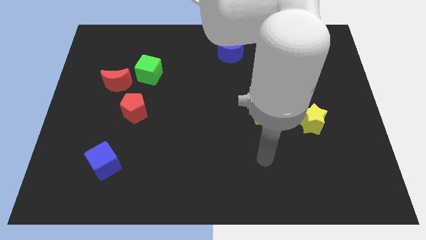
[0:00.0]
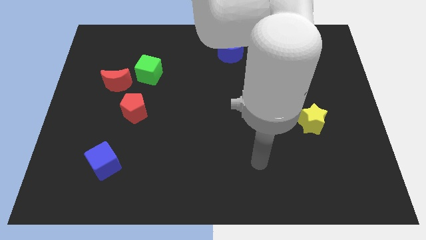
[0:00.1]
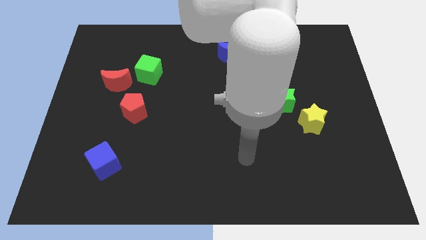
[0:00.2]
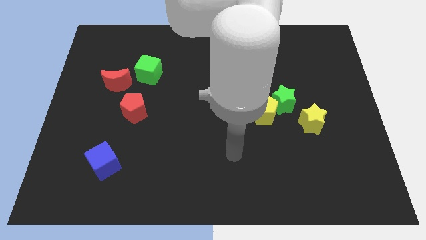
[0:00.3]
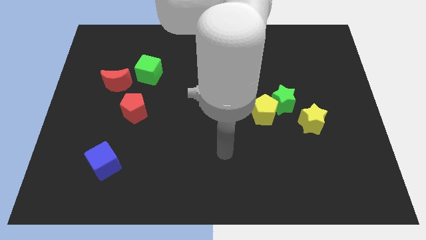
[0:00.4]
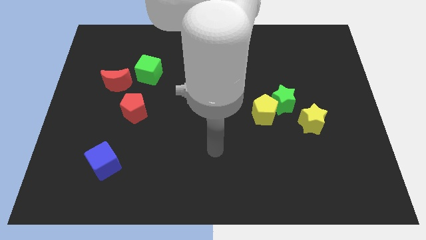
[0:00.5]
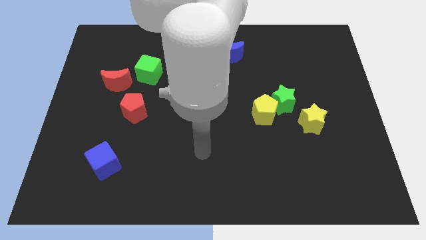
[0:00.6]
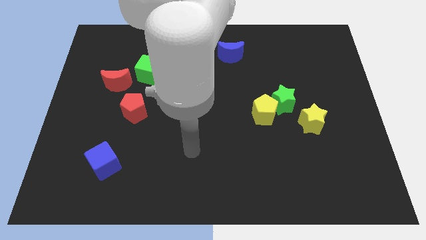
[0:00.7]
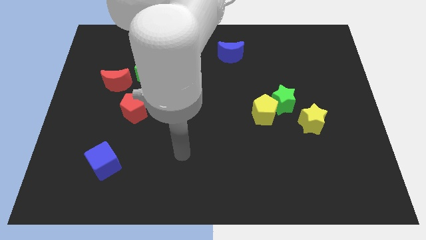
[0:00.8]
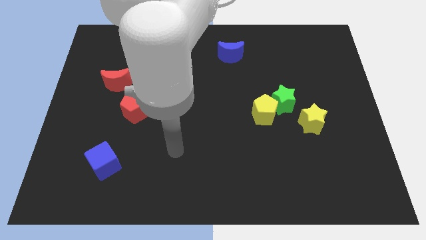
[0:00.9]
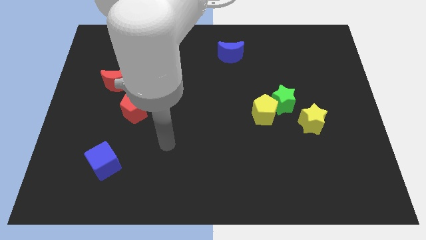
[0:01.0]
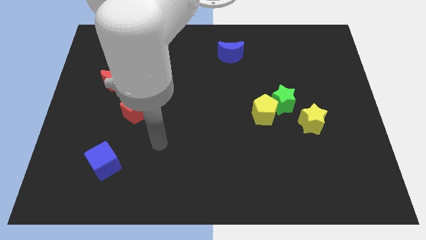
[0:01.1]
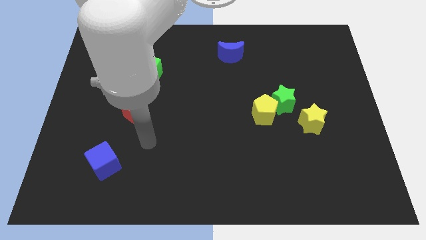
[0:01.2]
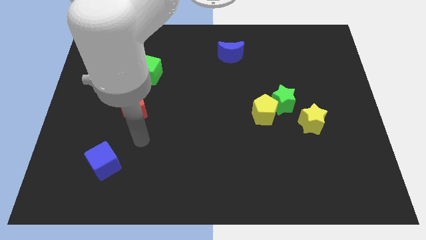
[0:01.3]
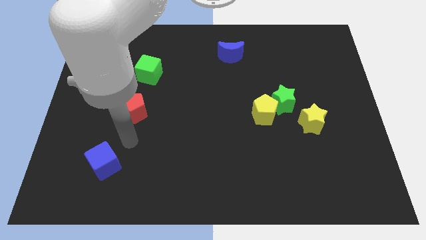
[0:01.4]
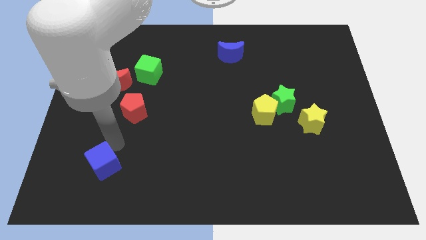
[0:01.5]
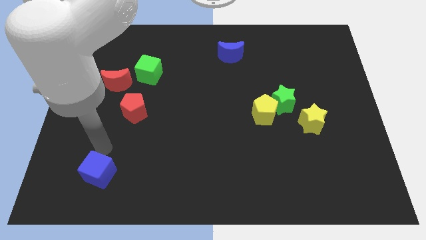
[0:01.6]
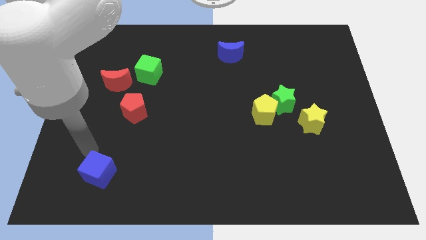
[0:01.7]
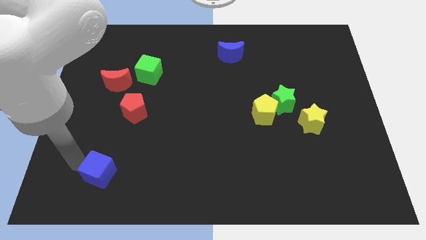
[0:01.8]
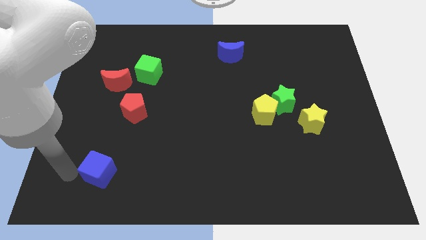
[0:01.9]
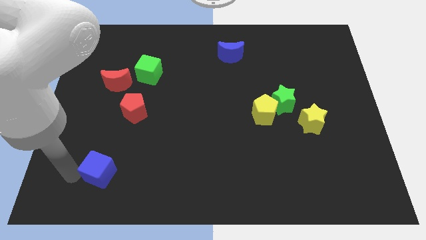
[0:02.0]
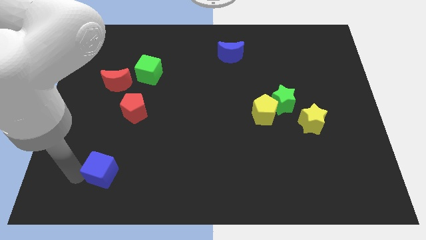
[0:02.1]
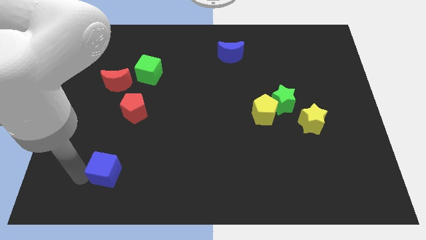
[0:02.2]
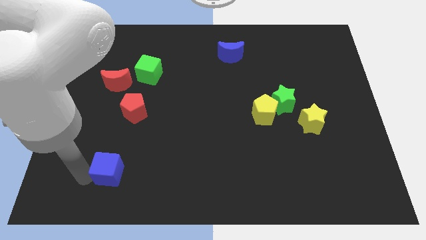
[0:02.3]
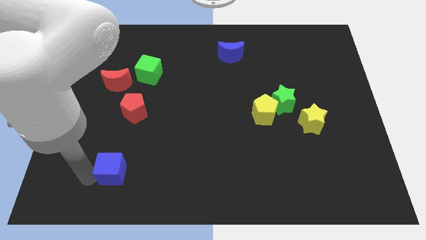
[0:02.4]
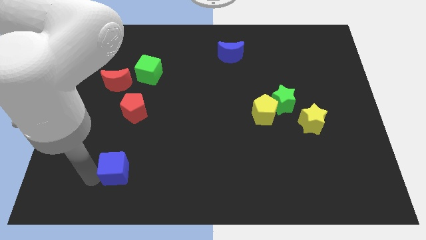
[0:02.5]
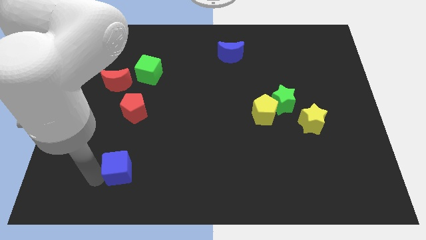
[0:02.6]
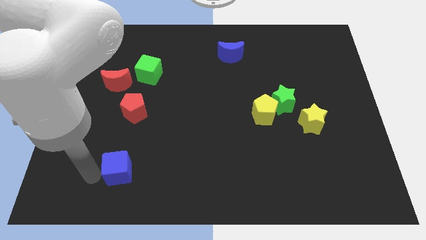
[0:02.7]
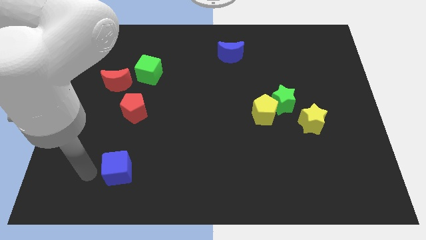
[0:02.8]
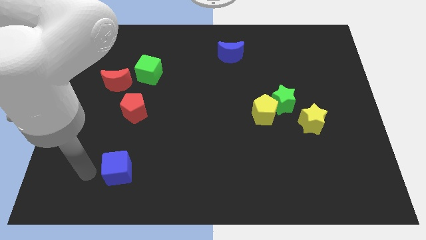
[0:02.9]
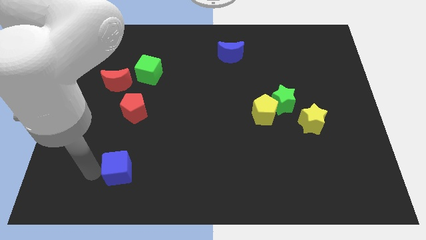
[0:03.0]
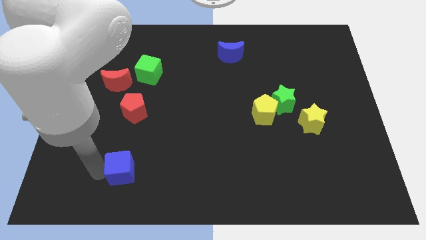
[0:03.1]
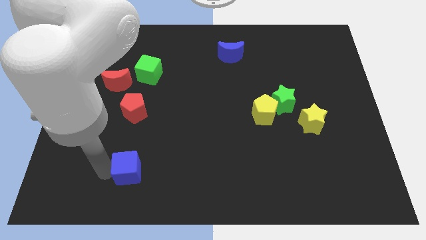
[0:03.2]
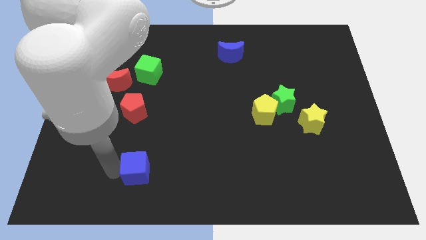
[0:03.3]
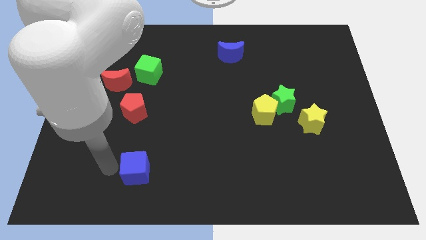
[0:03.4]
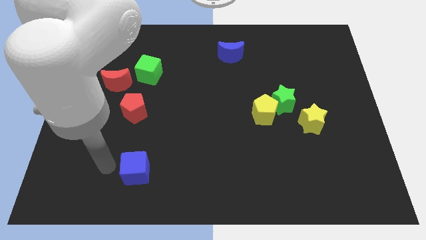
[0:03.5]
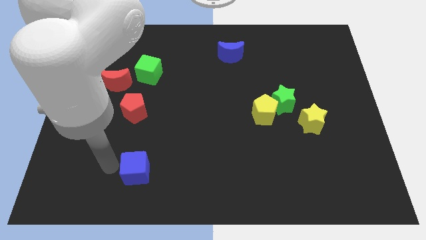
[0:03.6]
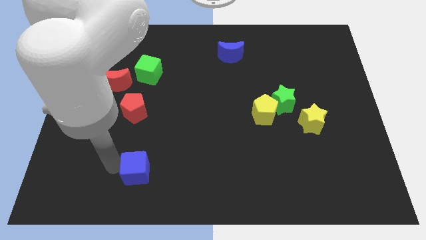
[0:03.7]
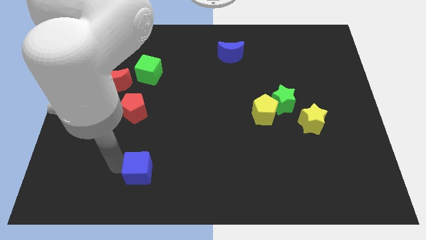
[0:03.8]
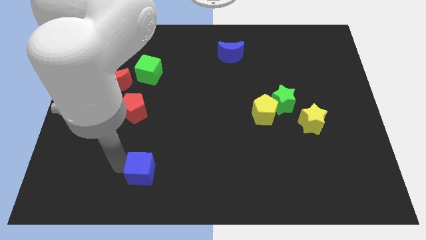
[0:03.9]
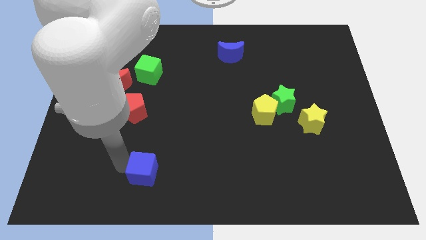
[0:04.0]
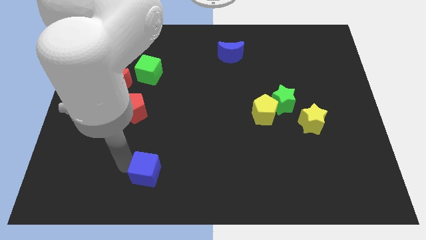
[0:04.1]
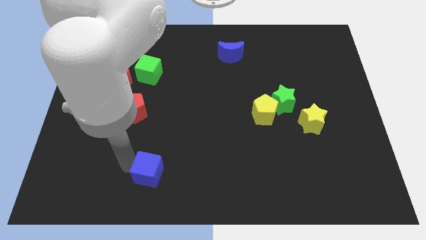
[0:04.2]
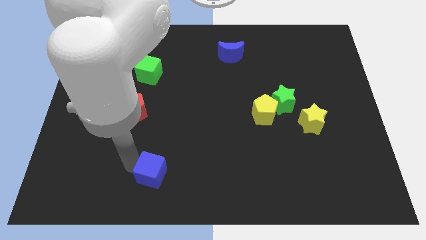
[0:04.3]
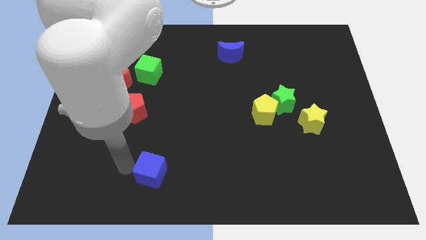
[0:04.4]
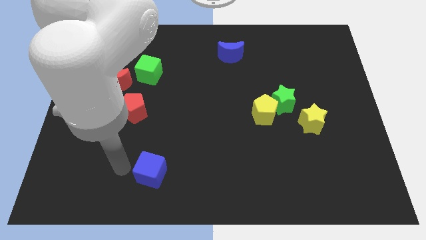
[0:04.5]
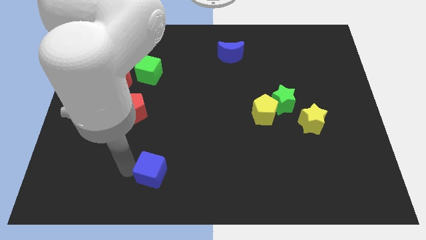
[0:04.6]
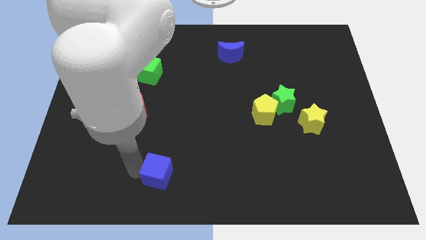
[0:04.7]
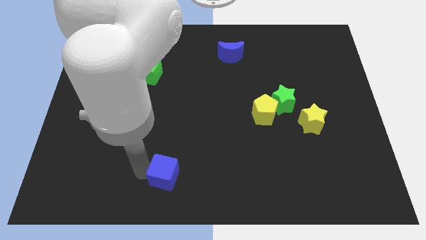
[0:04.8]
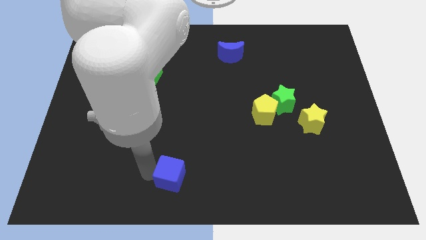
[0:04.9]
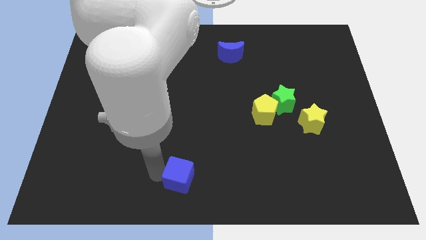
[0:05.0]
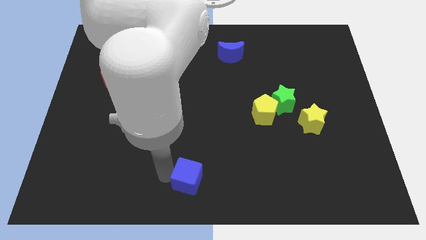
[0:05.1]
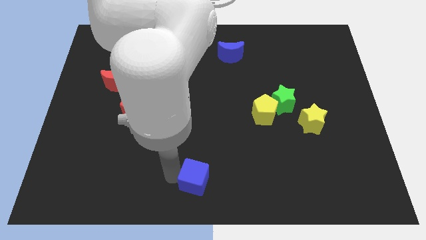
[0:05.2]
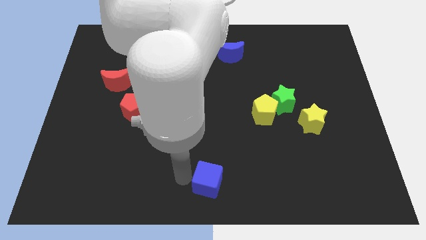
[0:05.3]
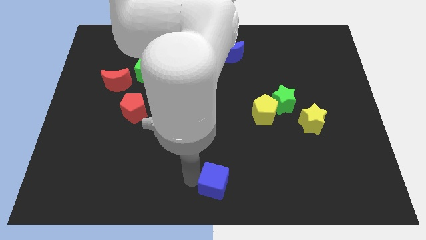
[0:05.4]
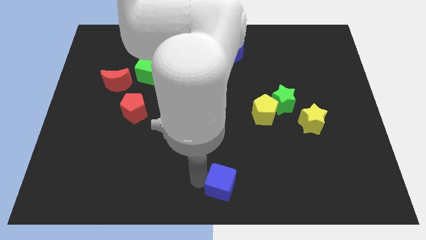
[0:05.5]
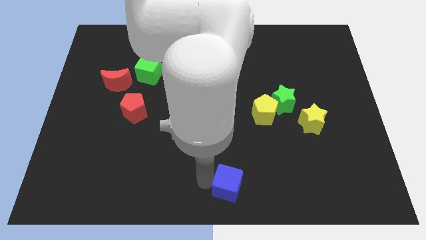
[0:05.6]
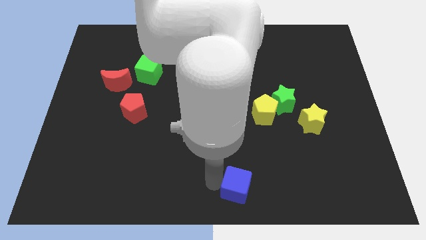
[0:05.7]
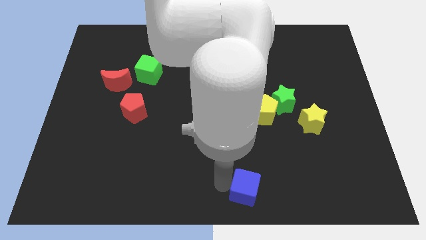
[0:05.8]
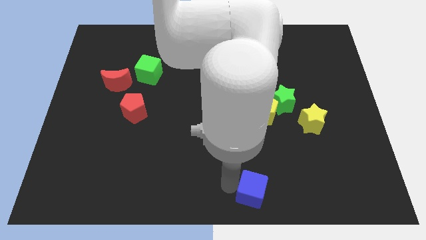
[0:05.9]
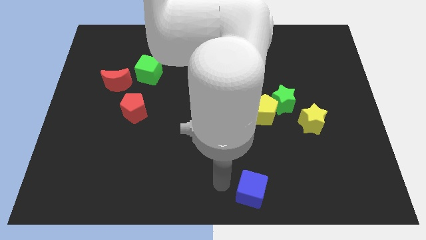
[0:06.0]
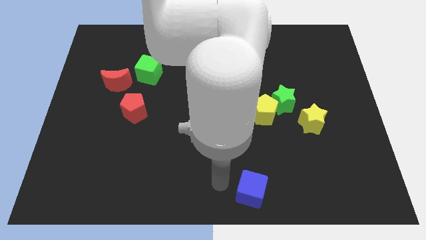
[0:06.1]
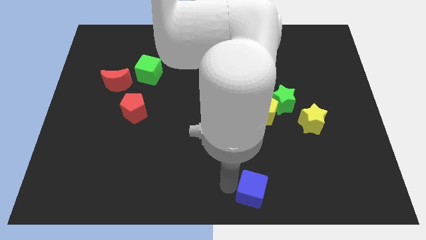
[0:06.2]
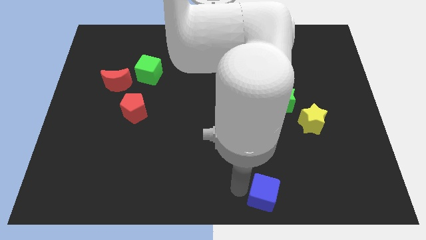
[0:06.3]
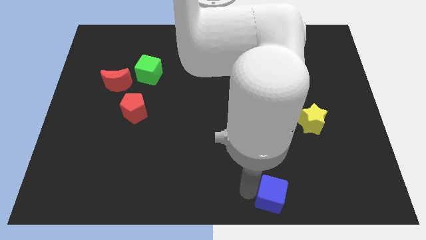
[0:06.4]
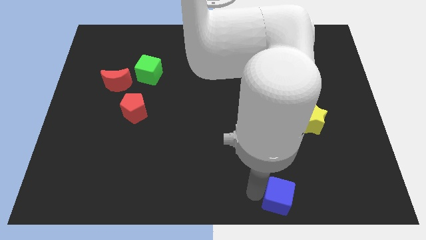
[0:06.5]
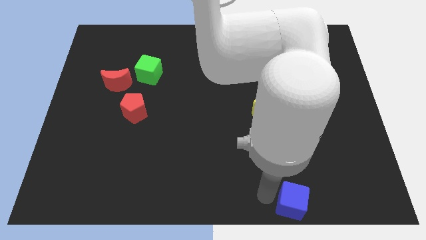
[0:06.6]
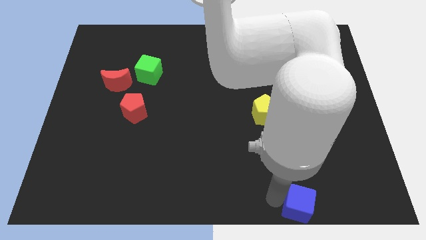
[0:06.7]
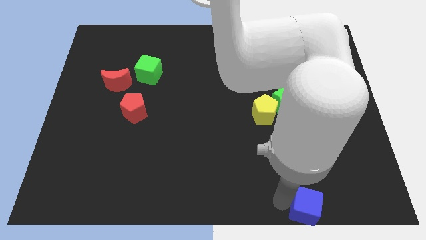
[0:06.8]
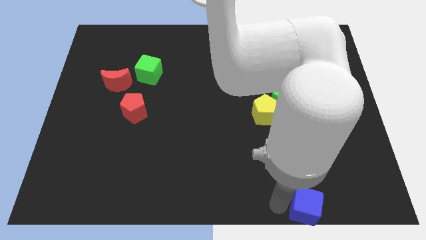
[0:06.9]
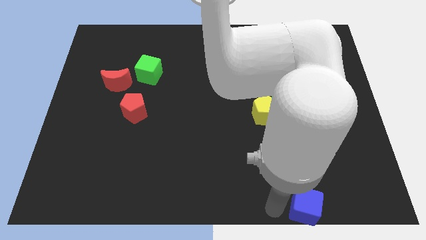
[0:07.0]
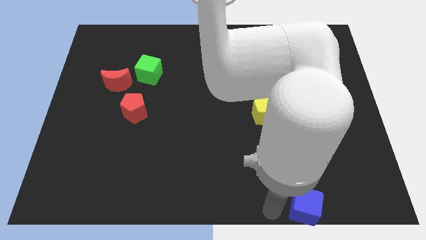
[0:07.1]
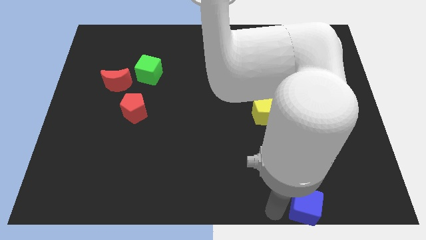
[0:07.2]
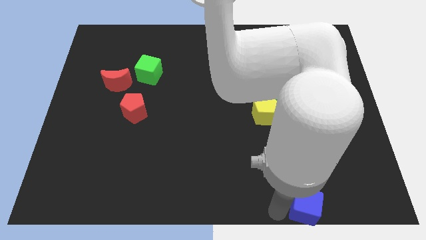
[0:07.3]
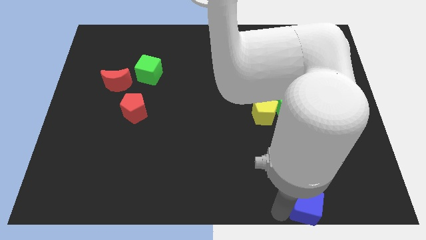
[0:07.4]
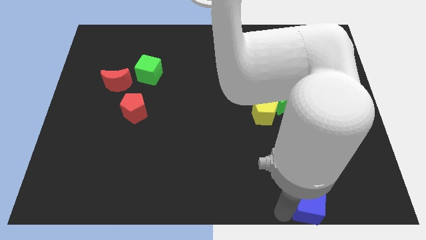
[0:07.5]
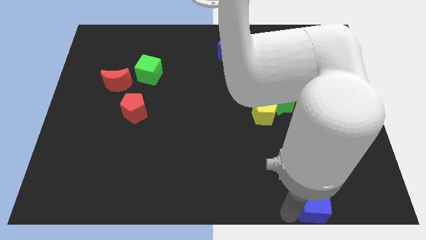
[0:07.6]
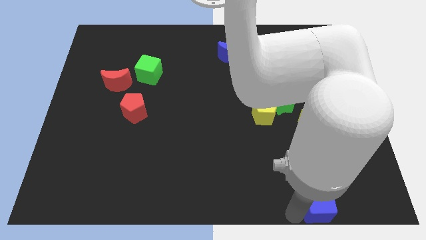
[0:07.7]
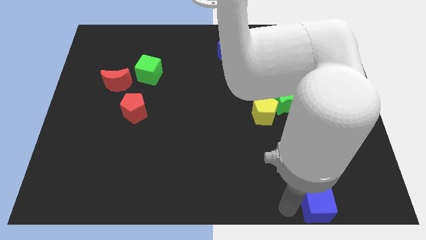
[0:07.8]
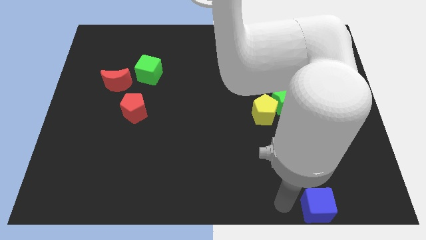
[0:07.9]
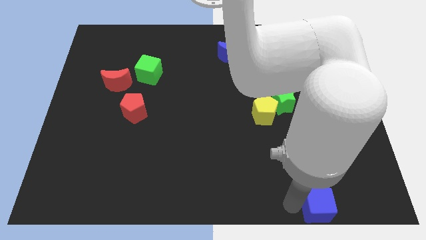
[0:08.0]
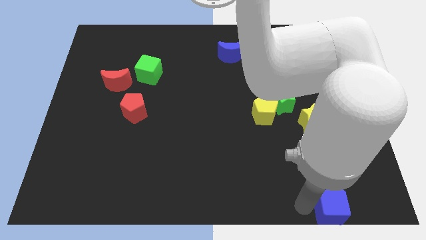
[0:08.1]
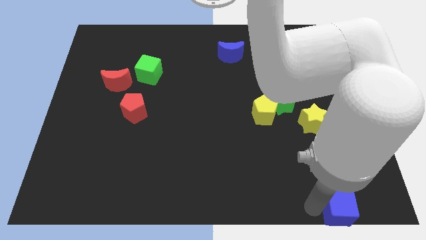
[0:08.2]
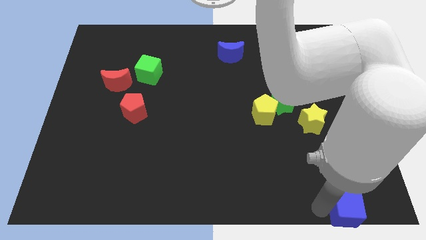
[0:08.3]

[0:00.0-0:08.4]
move the blue cube to the lower right corner
